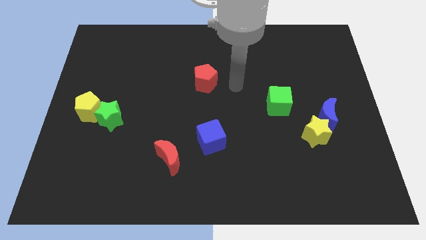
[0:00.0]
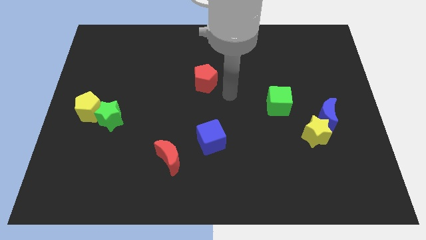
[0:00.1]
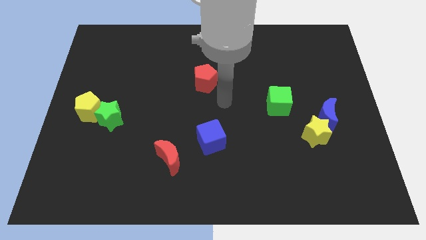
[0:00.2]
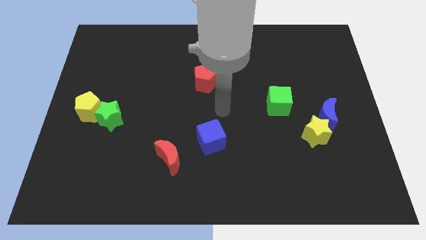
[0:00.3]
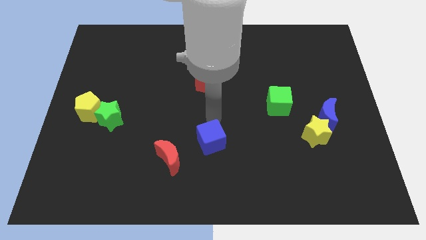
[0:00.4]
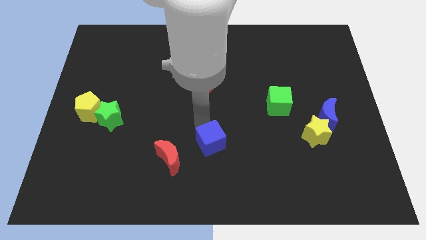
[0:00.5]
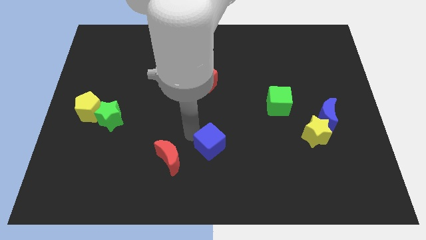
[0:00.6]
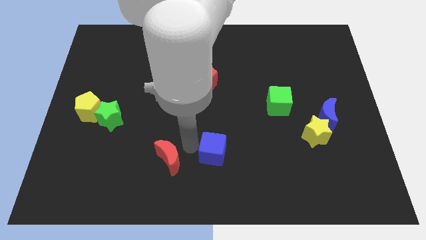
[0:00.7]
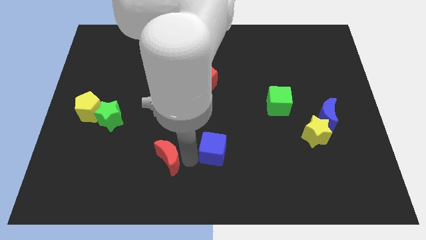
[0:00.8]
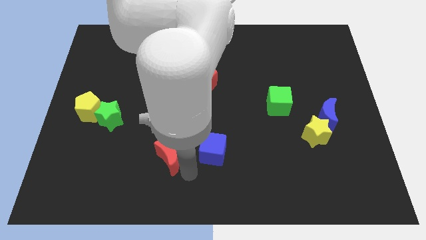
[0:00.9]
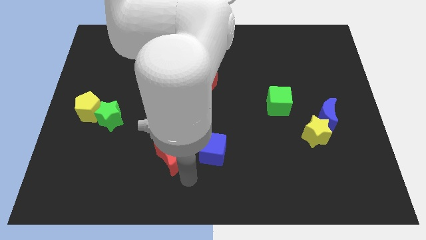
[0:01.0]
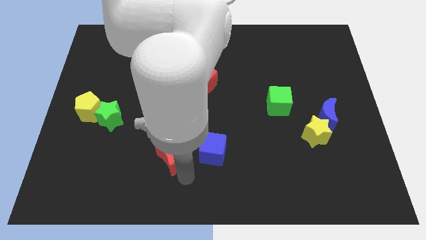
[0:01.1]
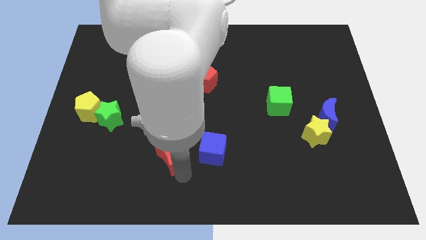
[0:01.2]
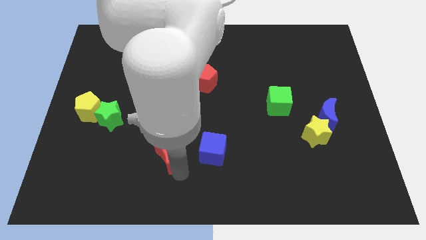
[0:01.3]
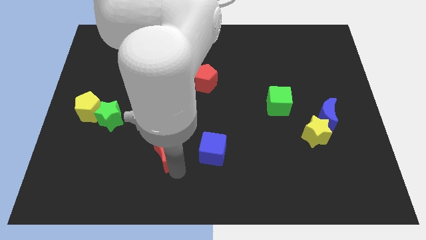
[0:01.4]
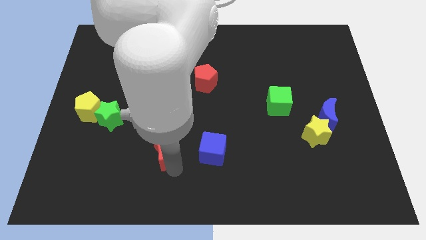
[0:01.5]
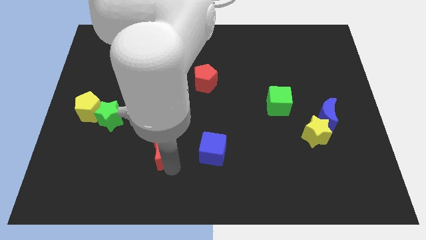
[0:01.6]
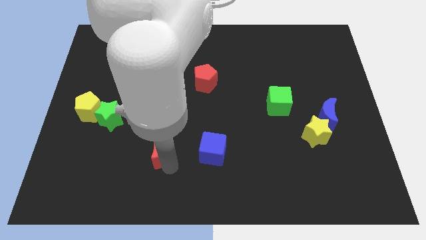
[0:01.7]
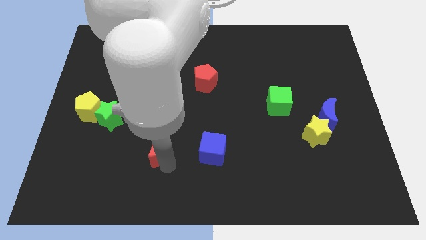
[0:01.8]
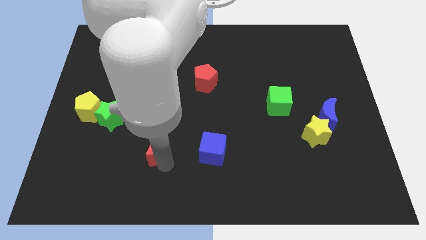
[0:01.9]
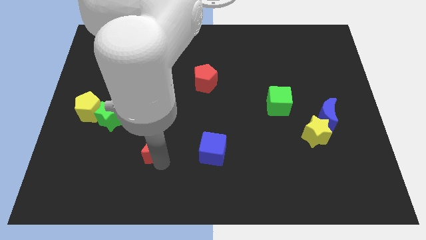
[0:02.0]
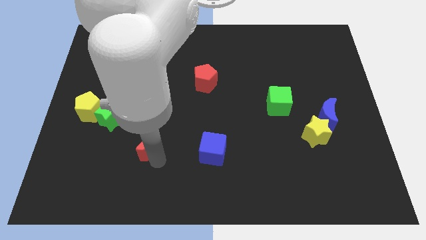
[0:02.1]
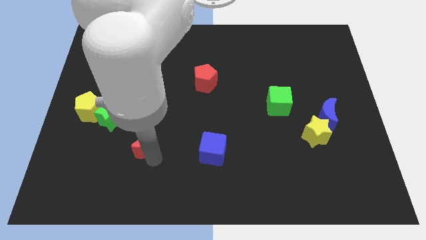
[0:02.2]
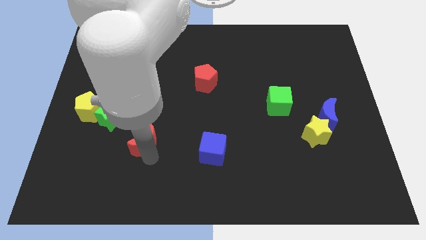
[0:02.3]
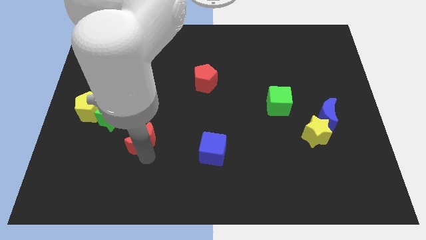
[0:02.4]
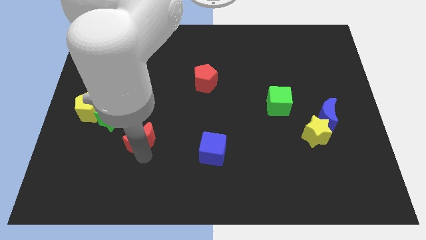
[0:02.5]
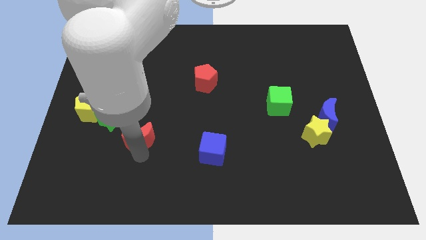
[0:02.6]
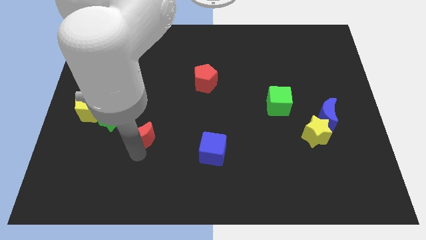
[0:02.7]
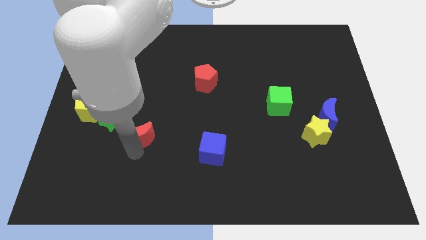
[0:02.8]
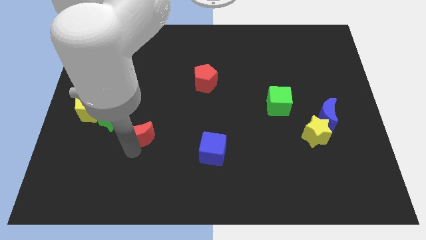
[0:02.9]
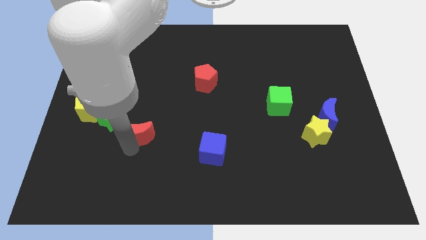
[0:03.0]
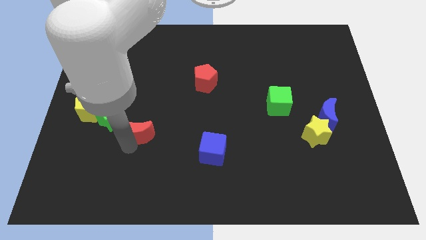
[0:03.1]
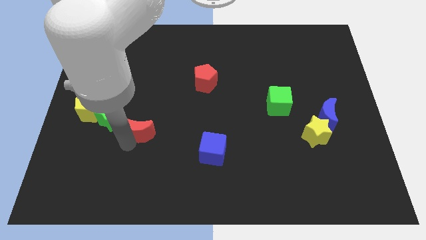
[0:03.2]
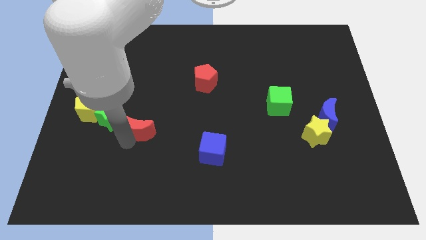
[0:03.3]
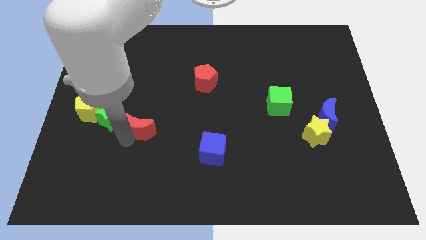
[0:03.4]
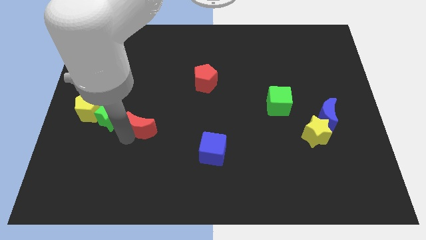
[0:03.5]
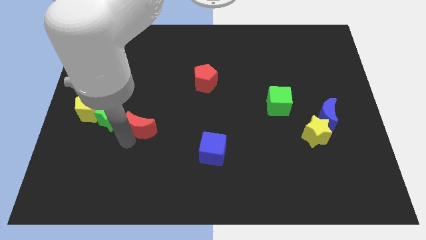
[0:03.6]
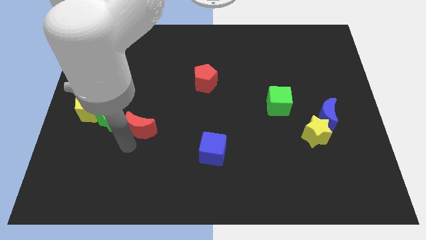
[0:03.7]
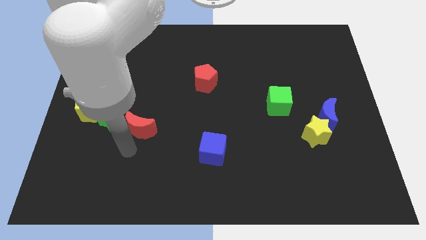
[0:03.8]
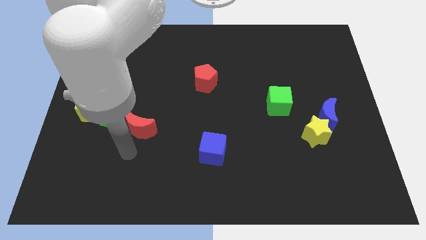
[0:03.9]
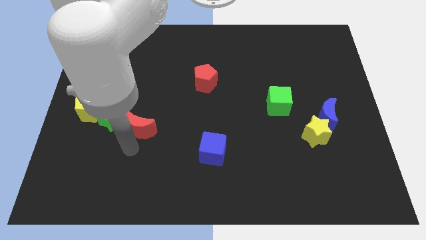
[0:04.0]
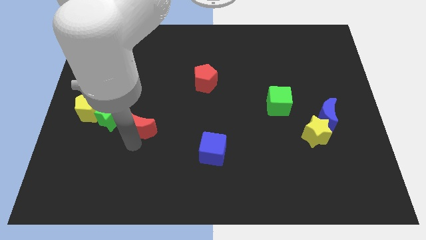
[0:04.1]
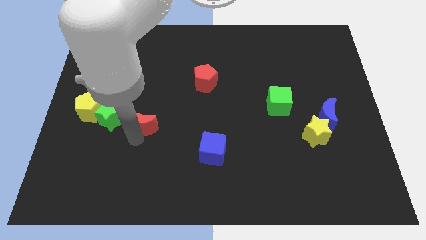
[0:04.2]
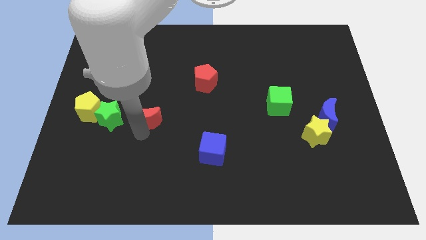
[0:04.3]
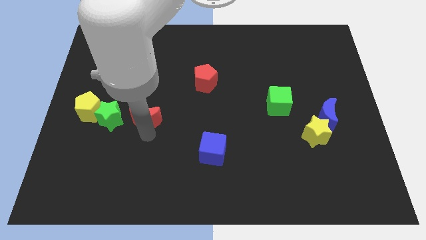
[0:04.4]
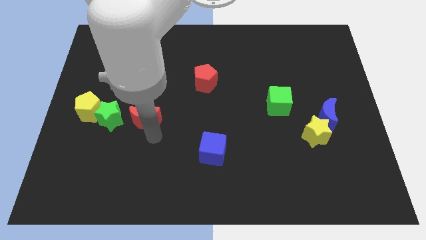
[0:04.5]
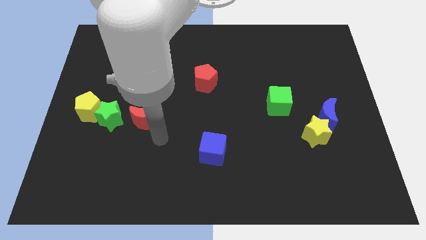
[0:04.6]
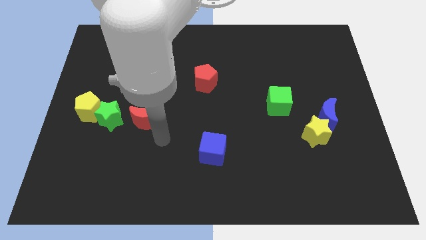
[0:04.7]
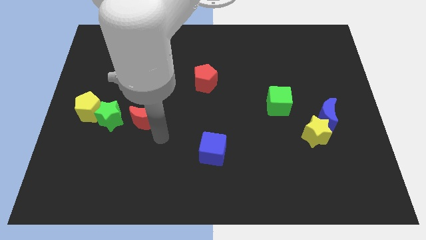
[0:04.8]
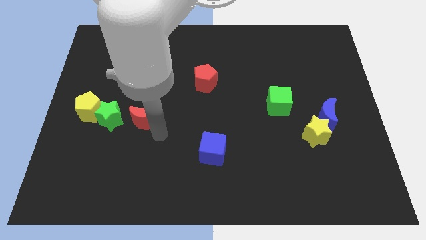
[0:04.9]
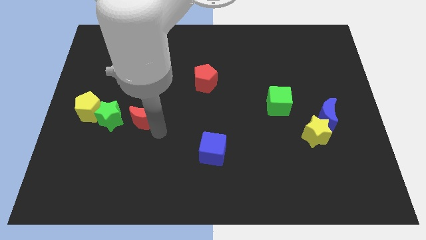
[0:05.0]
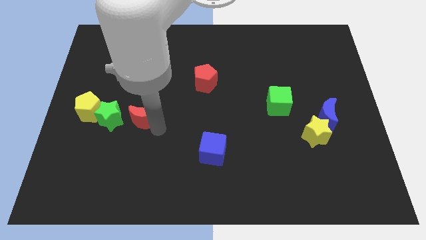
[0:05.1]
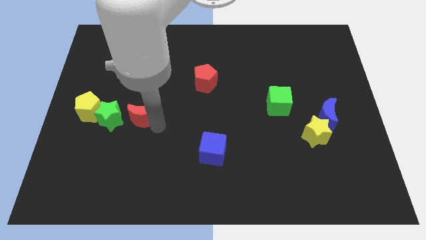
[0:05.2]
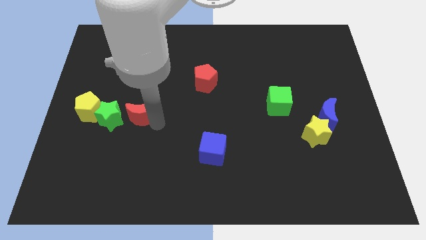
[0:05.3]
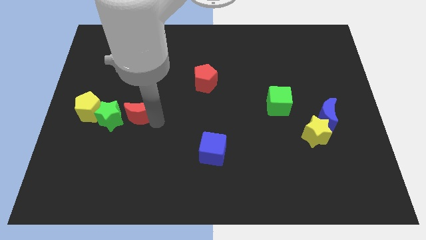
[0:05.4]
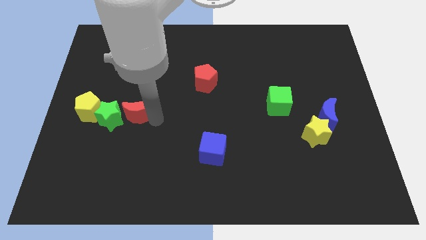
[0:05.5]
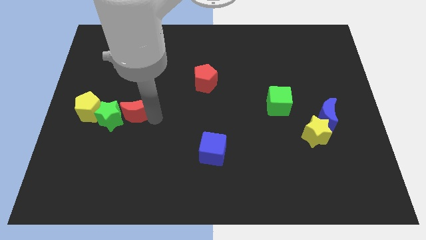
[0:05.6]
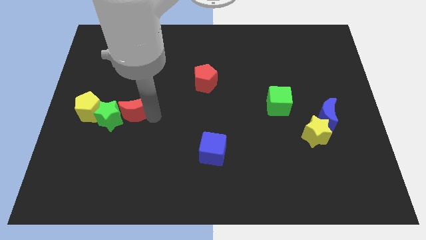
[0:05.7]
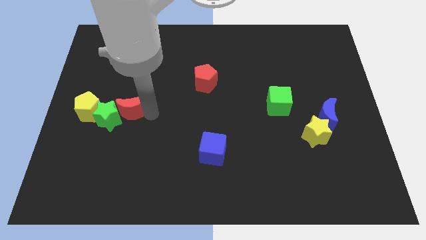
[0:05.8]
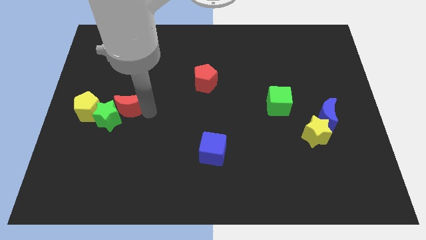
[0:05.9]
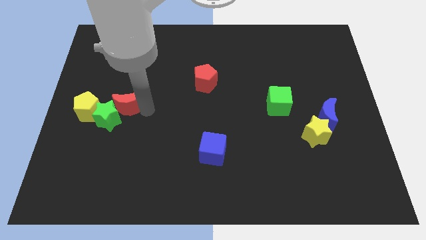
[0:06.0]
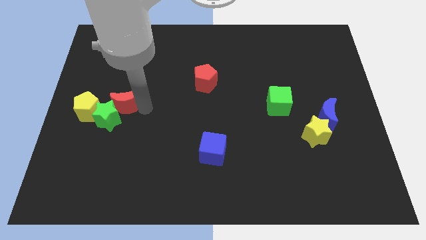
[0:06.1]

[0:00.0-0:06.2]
move the red moon to the top right side of the yellow pentagon
